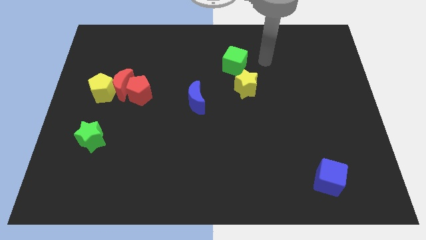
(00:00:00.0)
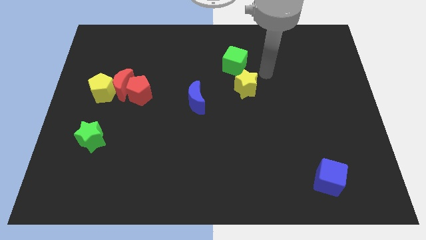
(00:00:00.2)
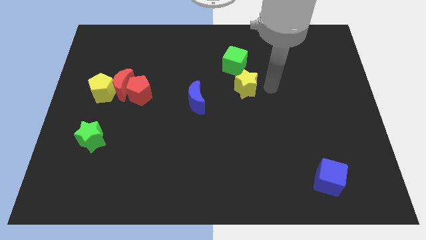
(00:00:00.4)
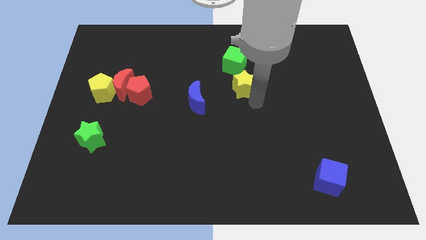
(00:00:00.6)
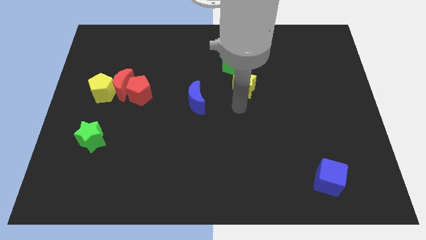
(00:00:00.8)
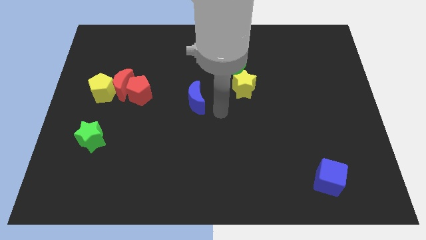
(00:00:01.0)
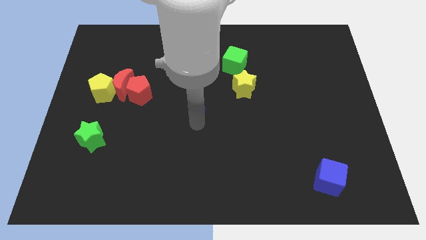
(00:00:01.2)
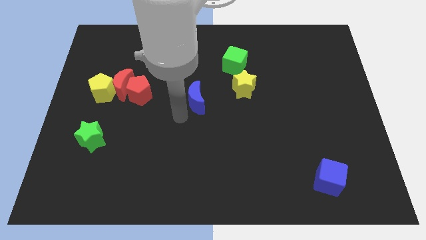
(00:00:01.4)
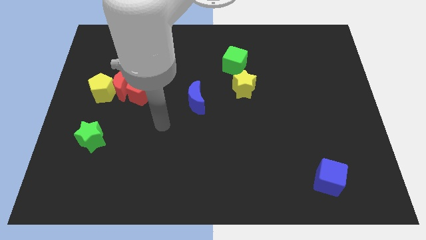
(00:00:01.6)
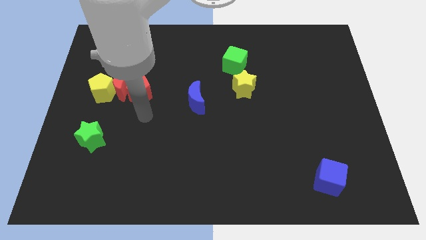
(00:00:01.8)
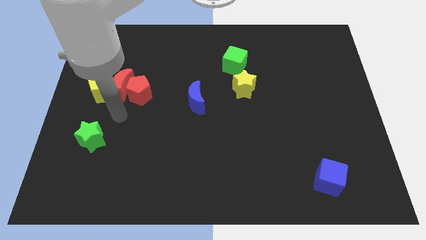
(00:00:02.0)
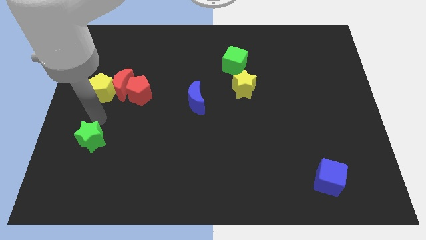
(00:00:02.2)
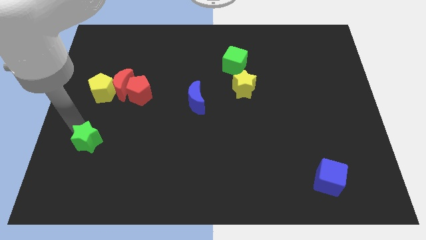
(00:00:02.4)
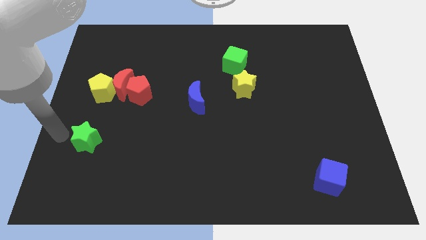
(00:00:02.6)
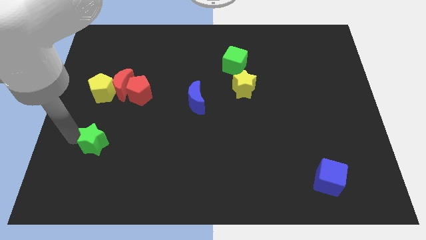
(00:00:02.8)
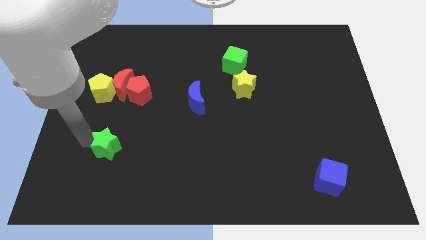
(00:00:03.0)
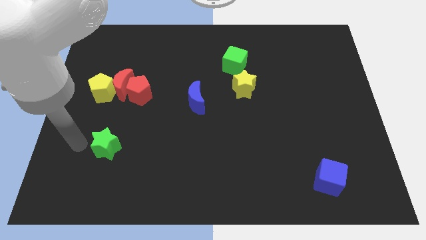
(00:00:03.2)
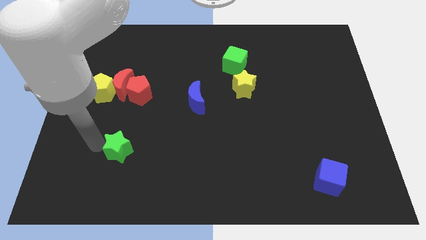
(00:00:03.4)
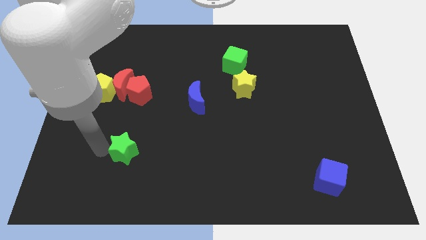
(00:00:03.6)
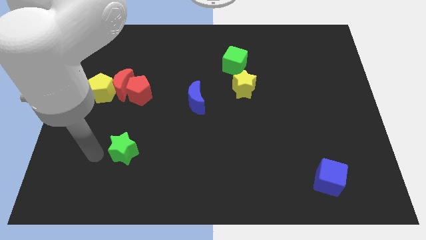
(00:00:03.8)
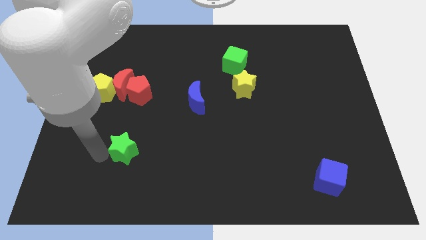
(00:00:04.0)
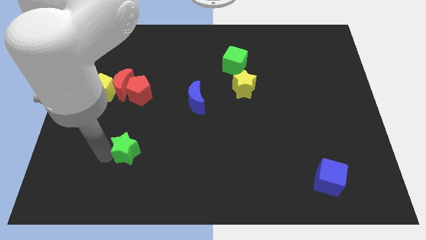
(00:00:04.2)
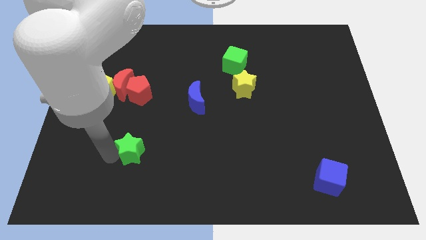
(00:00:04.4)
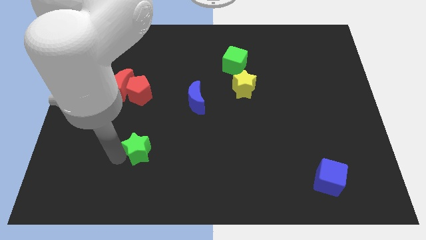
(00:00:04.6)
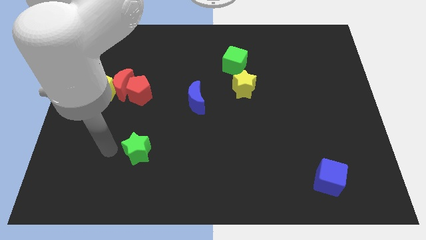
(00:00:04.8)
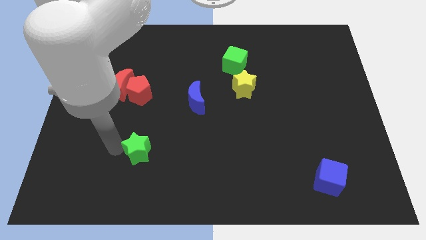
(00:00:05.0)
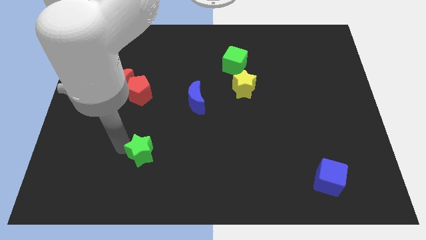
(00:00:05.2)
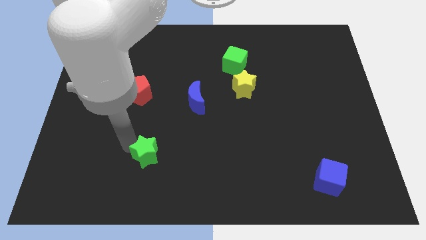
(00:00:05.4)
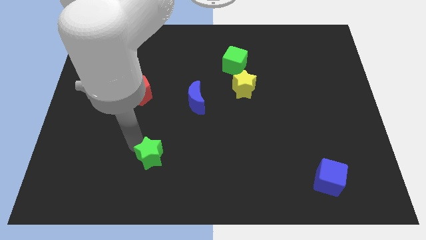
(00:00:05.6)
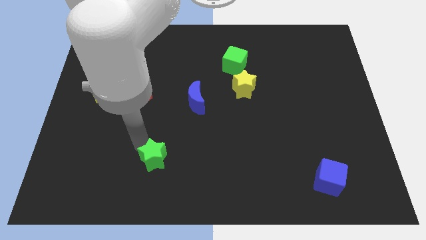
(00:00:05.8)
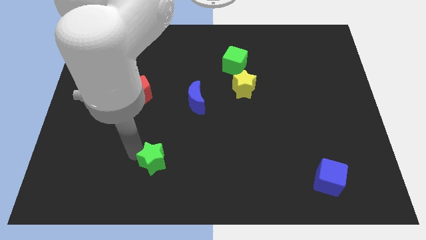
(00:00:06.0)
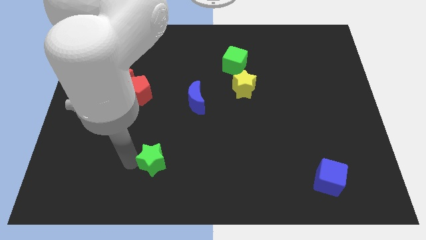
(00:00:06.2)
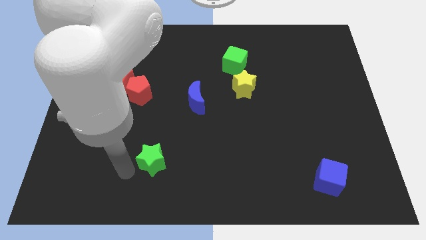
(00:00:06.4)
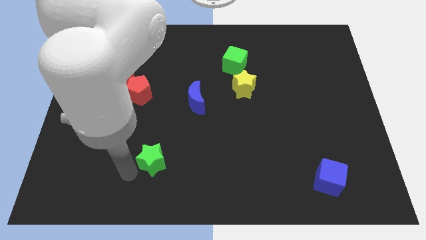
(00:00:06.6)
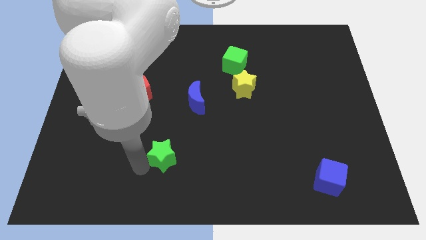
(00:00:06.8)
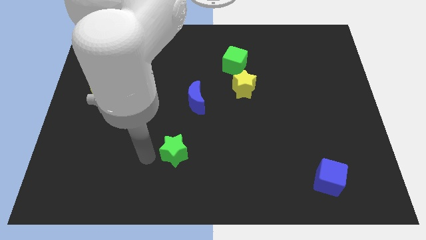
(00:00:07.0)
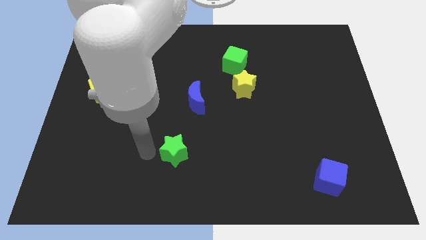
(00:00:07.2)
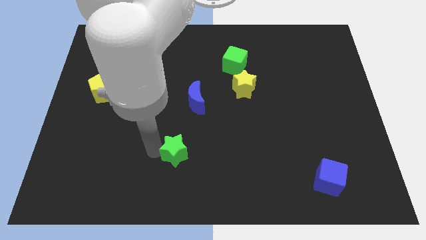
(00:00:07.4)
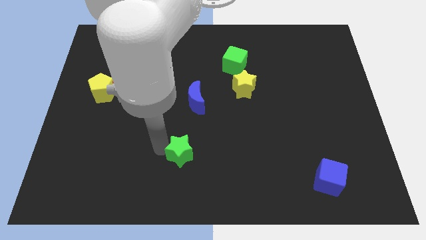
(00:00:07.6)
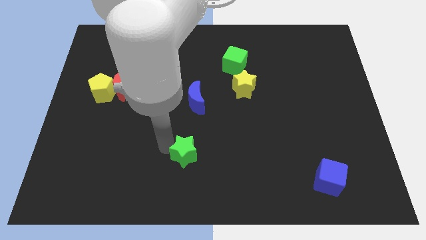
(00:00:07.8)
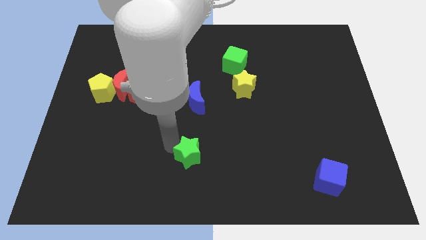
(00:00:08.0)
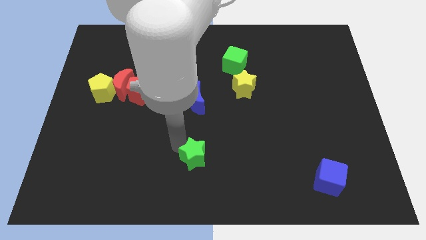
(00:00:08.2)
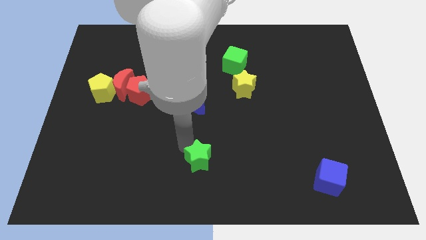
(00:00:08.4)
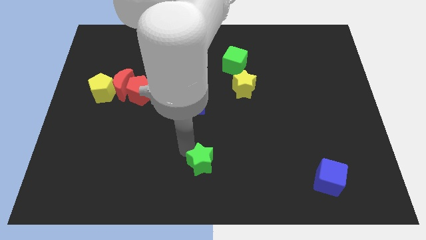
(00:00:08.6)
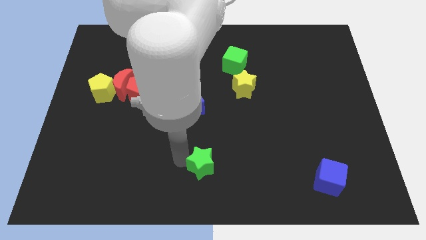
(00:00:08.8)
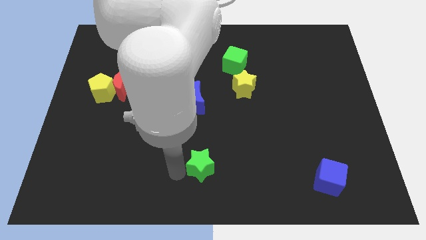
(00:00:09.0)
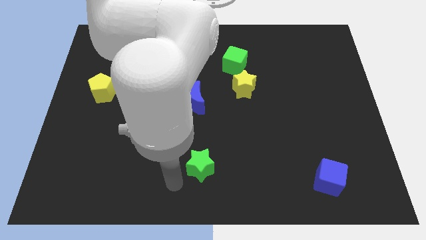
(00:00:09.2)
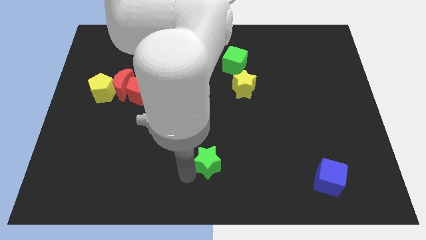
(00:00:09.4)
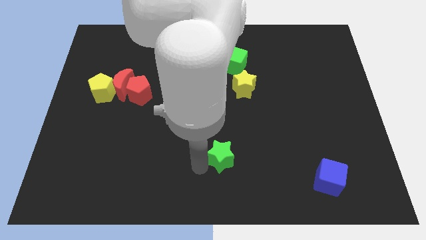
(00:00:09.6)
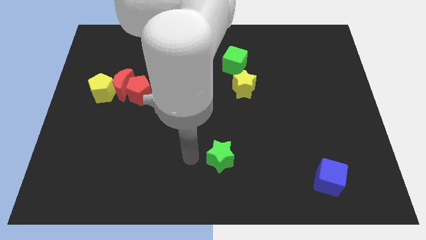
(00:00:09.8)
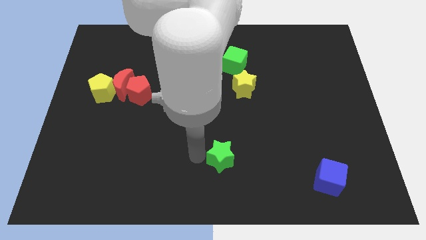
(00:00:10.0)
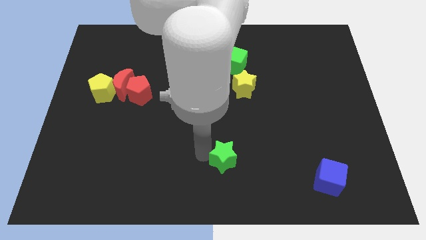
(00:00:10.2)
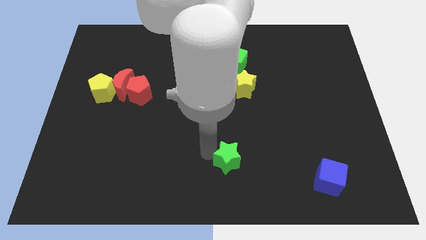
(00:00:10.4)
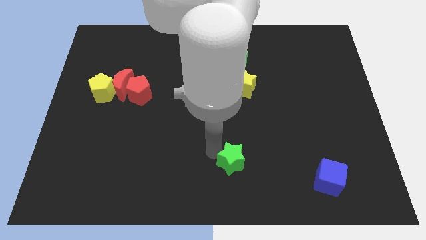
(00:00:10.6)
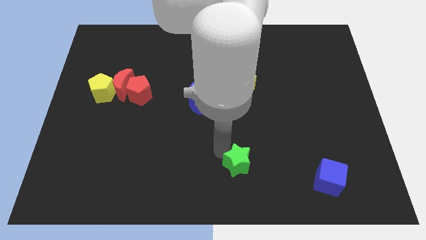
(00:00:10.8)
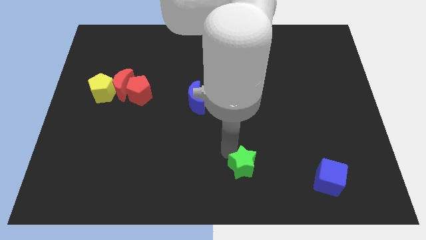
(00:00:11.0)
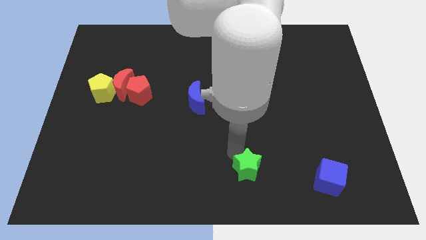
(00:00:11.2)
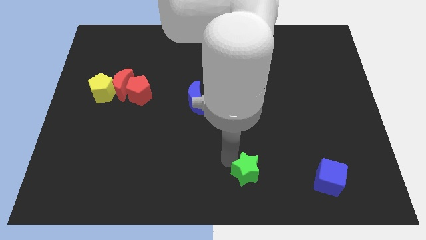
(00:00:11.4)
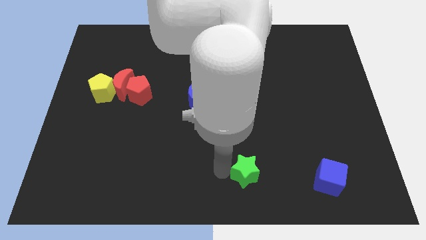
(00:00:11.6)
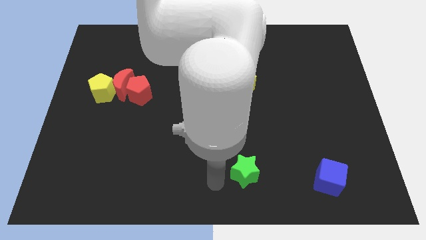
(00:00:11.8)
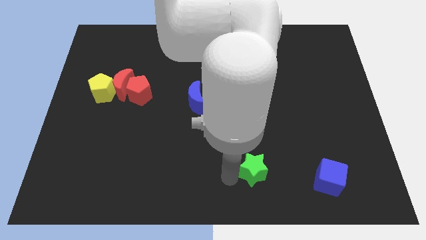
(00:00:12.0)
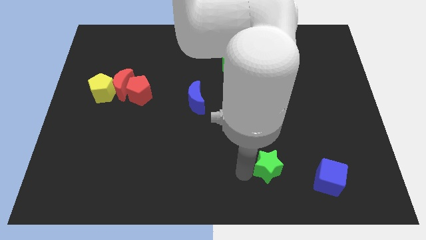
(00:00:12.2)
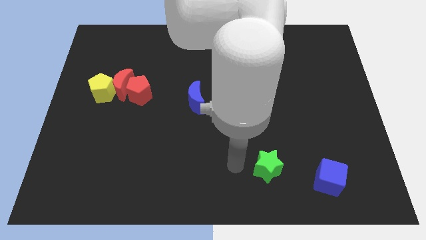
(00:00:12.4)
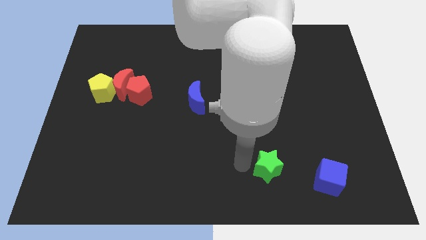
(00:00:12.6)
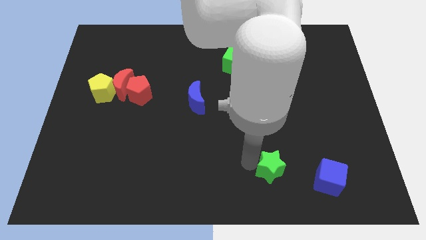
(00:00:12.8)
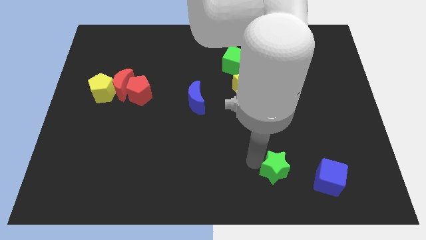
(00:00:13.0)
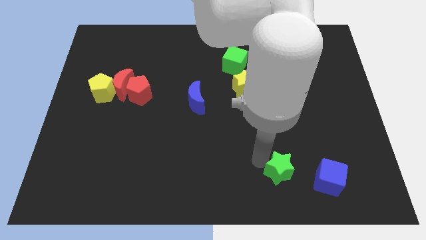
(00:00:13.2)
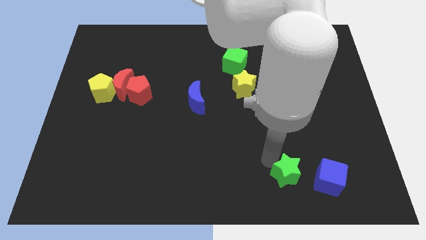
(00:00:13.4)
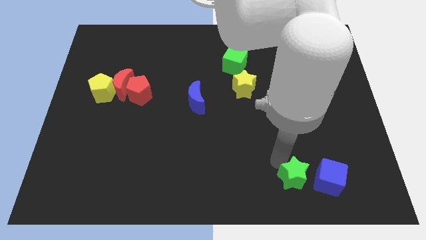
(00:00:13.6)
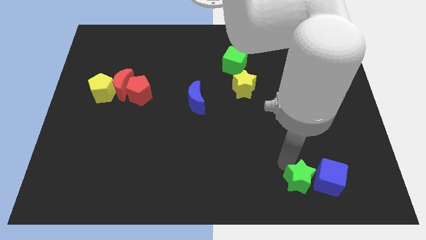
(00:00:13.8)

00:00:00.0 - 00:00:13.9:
put the green star close to the blue cube
